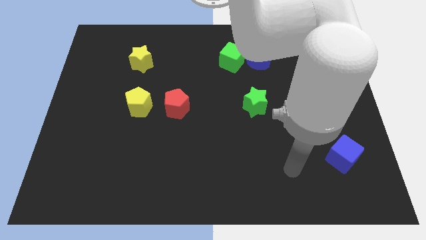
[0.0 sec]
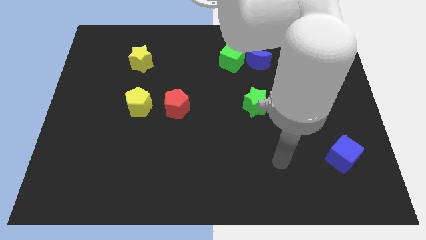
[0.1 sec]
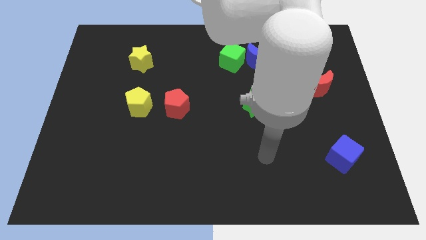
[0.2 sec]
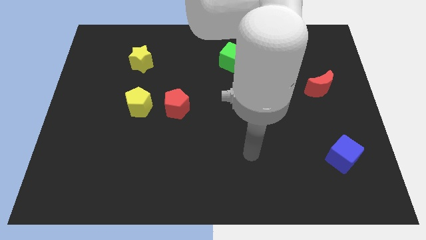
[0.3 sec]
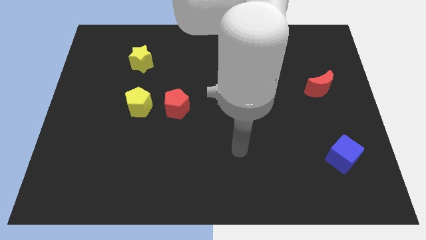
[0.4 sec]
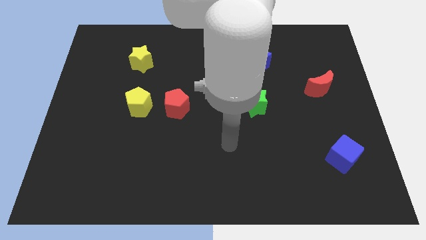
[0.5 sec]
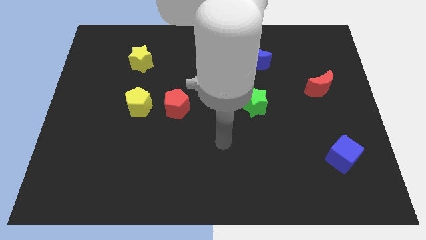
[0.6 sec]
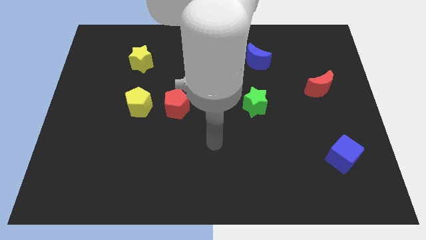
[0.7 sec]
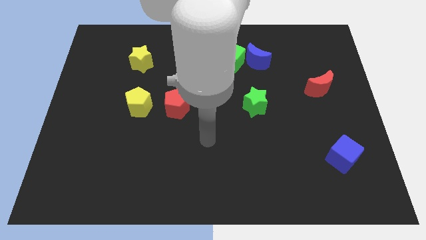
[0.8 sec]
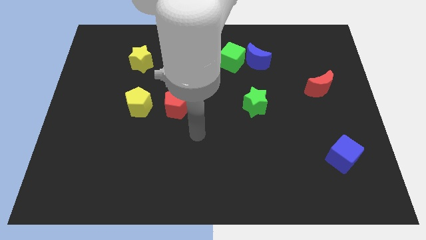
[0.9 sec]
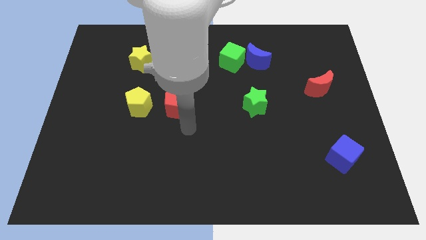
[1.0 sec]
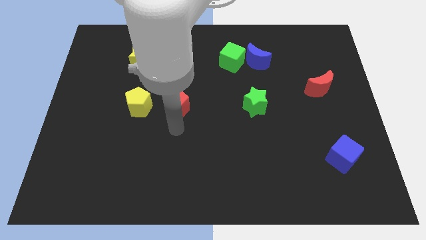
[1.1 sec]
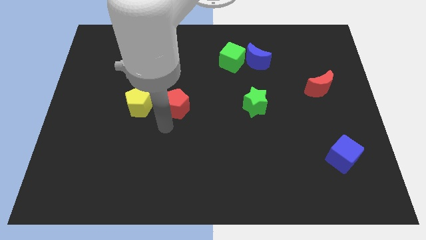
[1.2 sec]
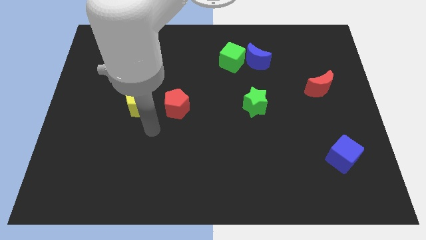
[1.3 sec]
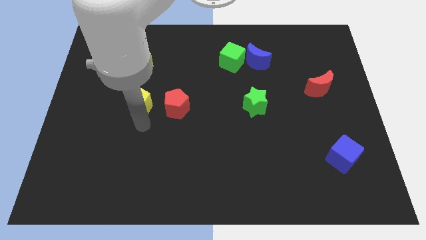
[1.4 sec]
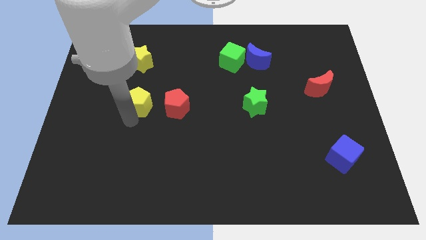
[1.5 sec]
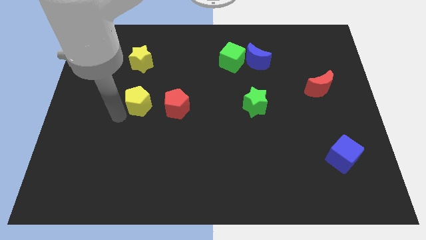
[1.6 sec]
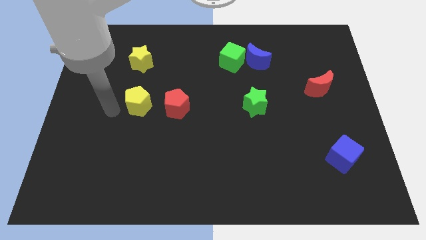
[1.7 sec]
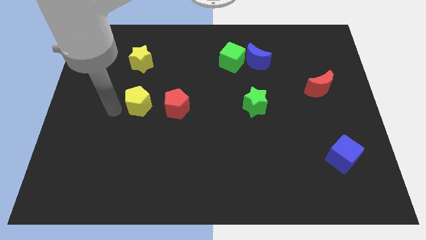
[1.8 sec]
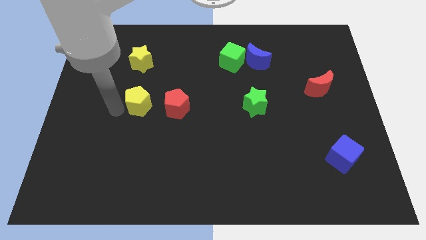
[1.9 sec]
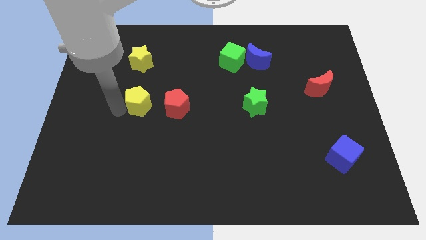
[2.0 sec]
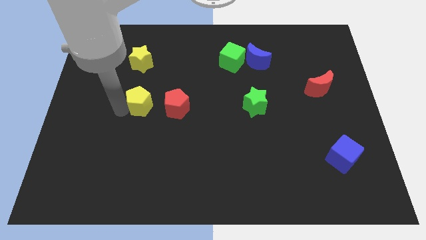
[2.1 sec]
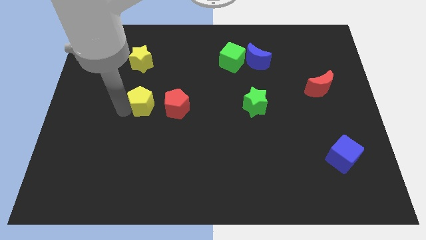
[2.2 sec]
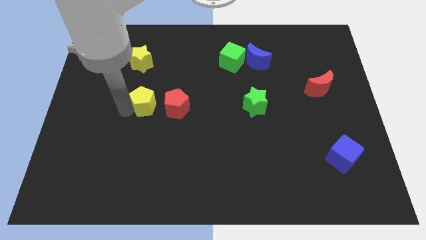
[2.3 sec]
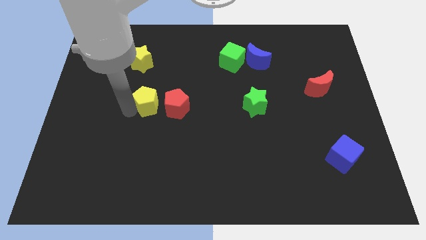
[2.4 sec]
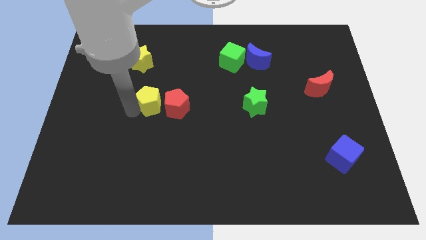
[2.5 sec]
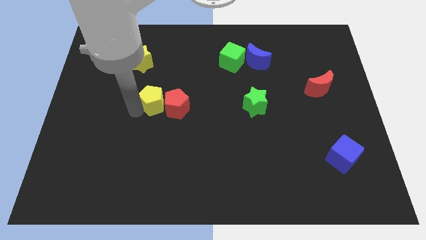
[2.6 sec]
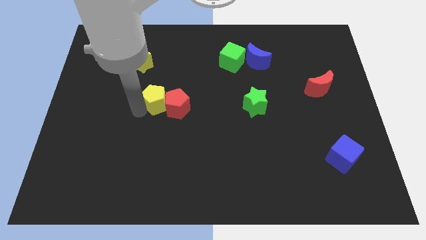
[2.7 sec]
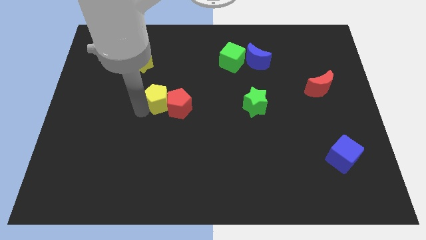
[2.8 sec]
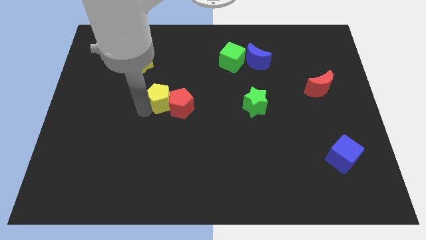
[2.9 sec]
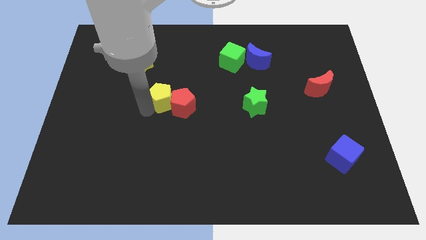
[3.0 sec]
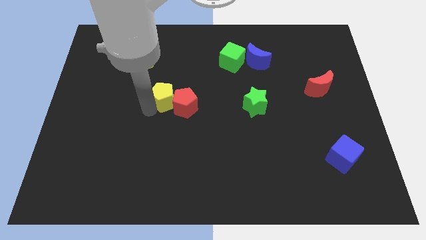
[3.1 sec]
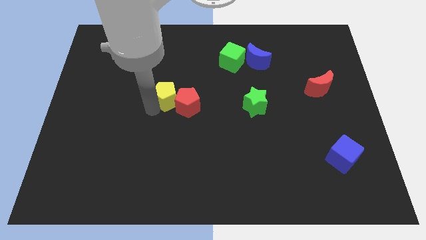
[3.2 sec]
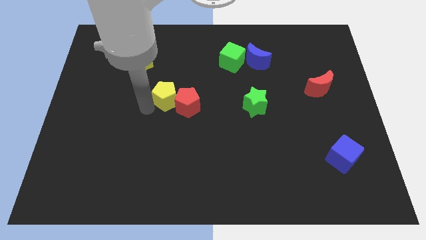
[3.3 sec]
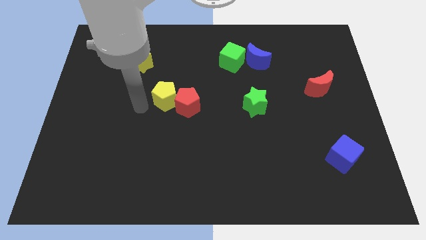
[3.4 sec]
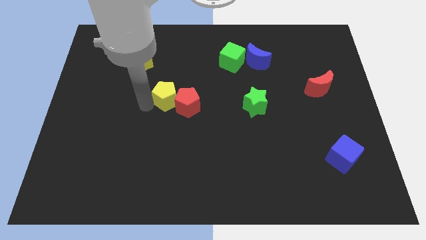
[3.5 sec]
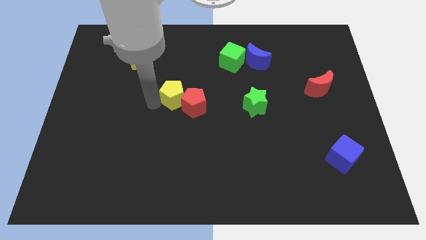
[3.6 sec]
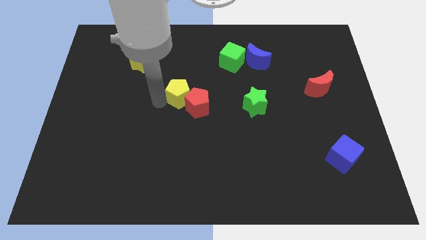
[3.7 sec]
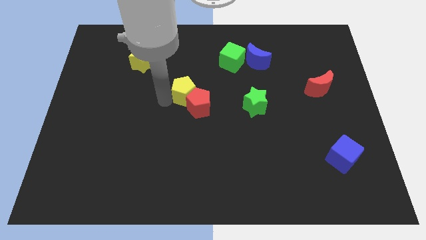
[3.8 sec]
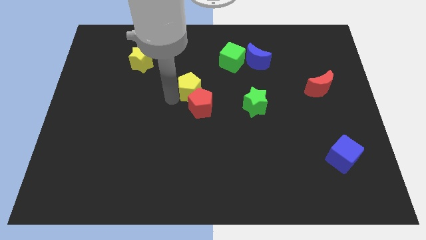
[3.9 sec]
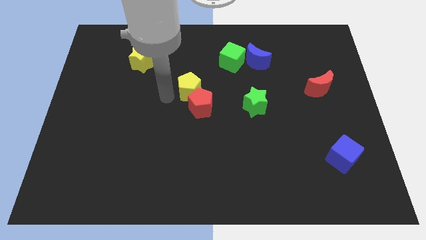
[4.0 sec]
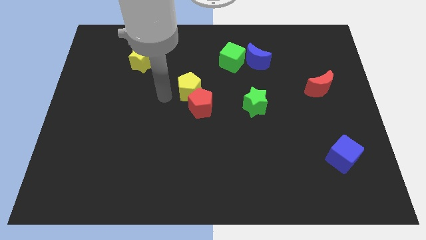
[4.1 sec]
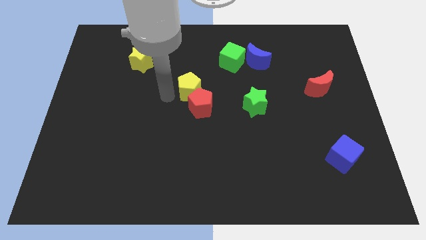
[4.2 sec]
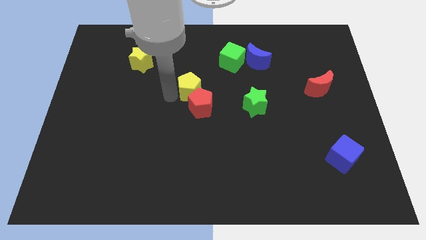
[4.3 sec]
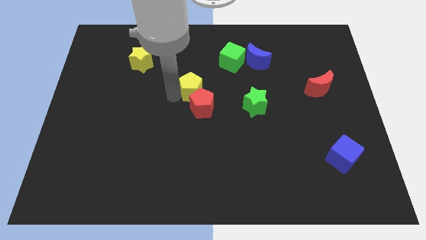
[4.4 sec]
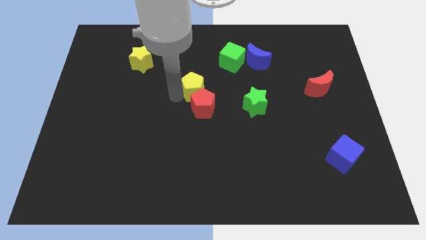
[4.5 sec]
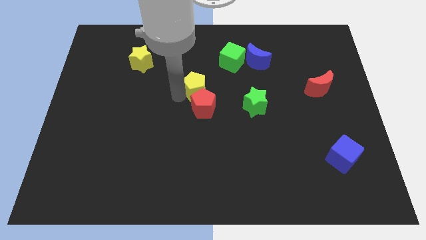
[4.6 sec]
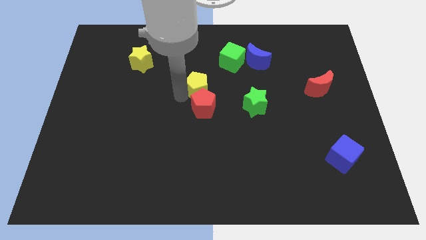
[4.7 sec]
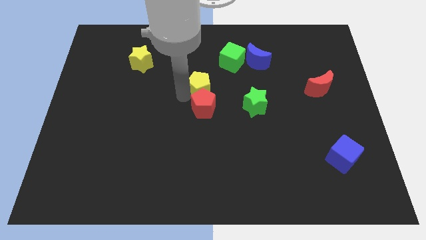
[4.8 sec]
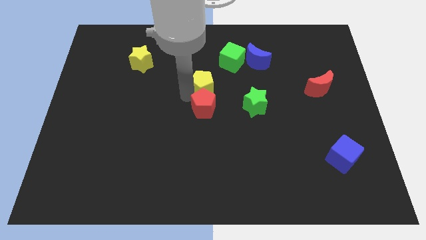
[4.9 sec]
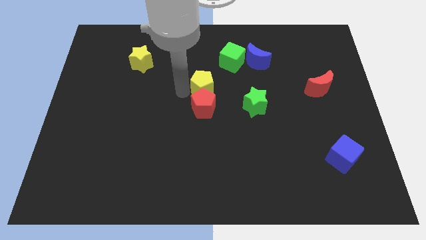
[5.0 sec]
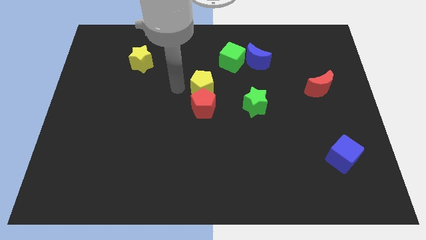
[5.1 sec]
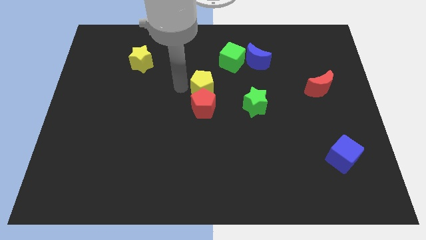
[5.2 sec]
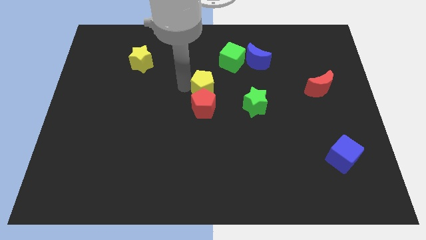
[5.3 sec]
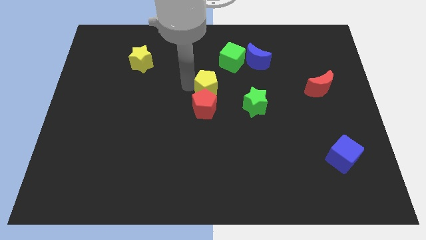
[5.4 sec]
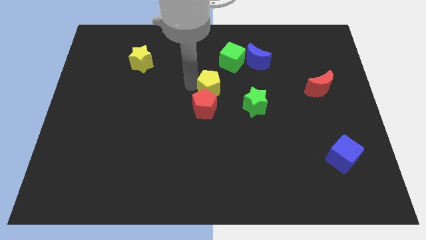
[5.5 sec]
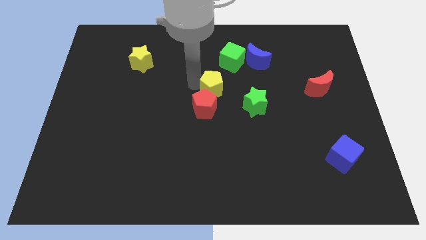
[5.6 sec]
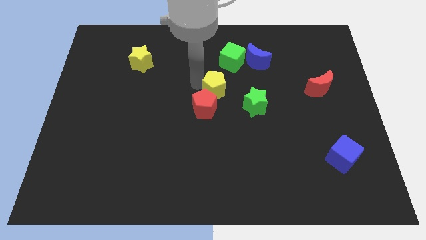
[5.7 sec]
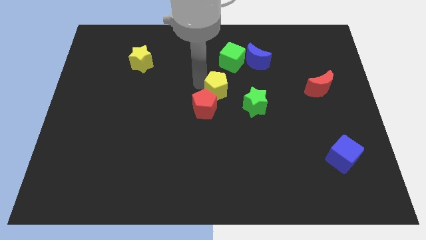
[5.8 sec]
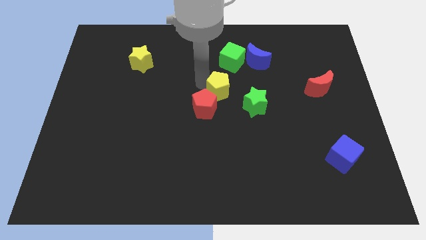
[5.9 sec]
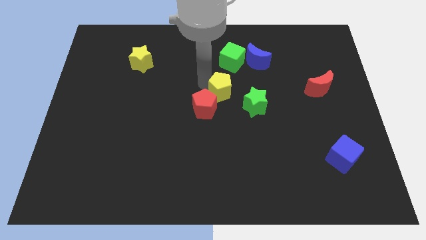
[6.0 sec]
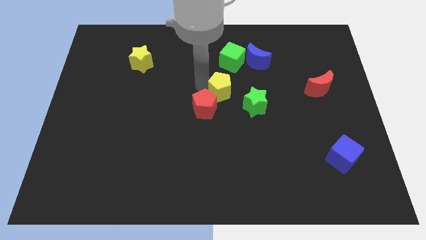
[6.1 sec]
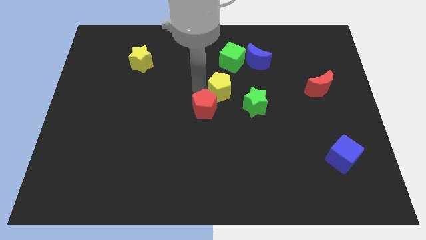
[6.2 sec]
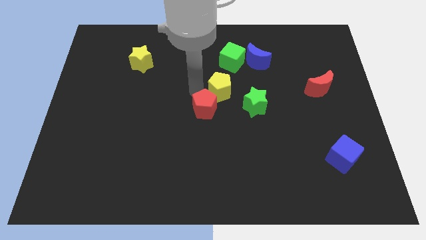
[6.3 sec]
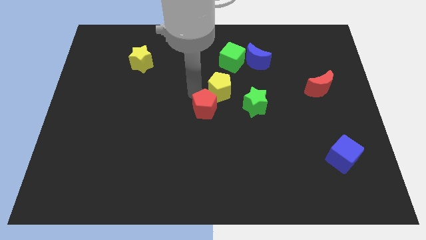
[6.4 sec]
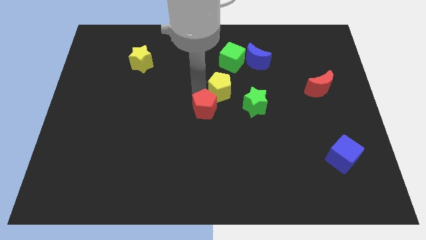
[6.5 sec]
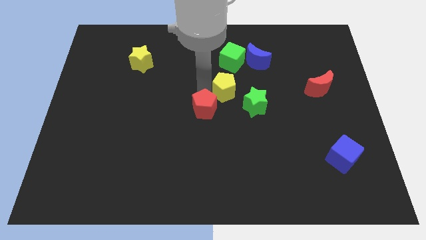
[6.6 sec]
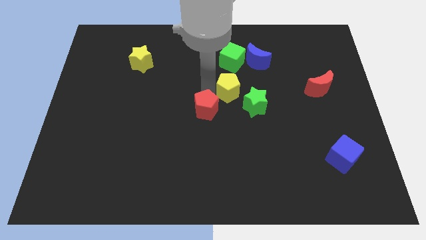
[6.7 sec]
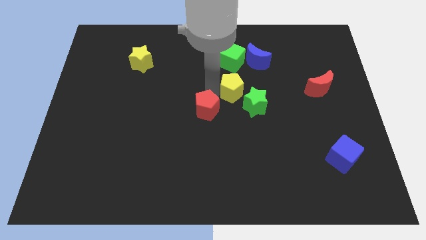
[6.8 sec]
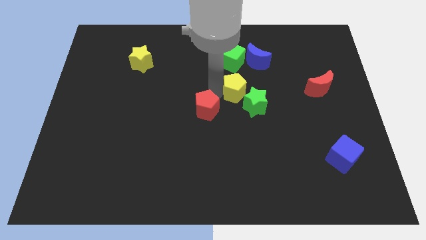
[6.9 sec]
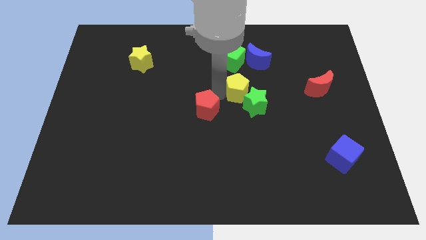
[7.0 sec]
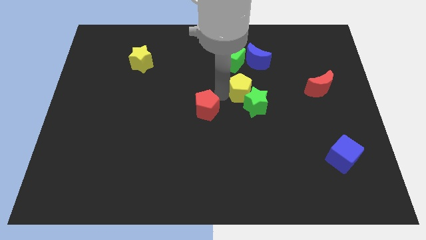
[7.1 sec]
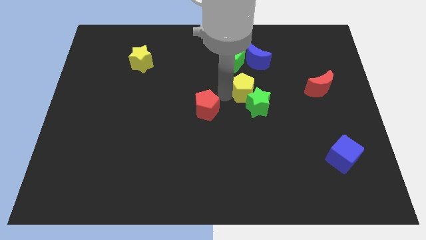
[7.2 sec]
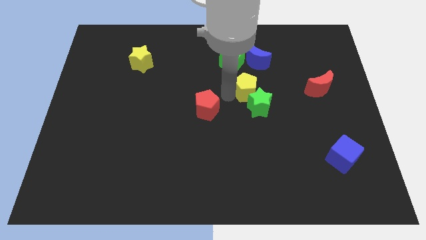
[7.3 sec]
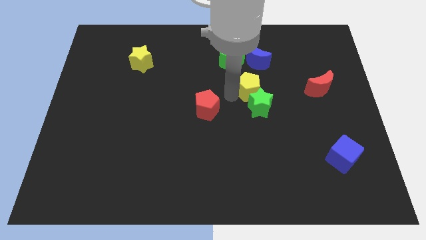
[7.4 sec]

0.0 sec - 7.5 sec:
put the yellow pentagon diagonally down and to the right of the green cube

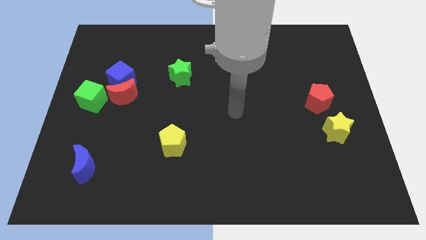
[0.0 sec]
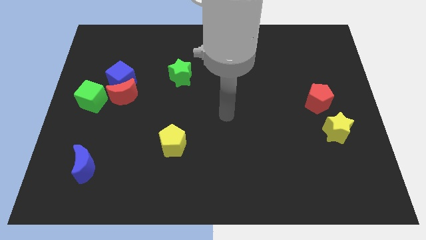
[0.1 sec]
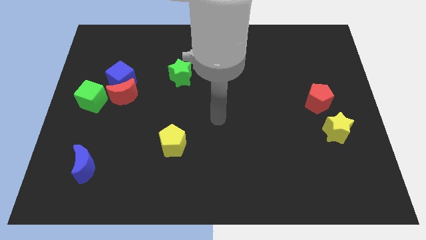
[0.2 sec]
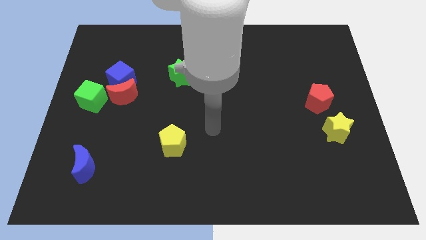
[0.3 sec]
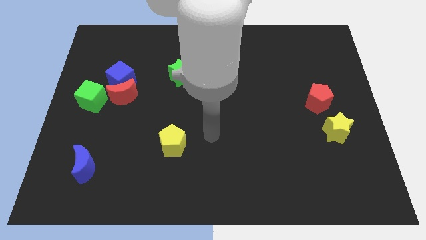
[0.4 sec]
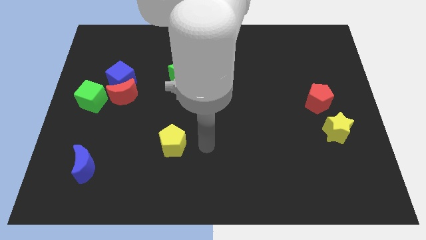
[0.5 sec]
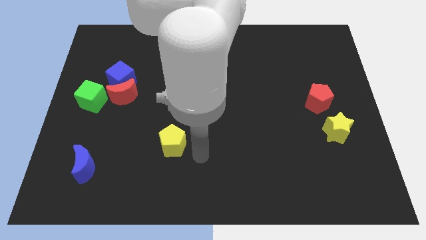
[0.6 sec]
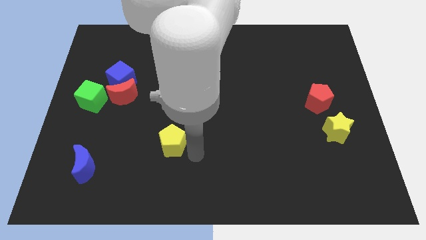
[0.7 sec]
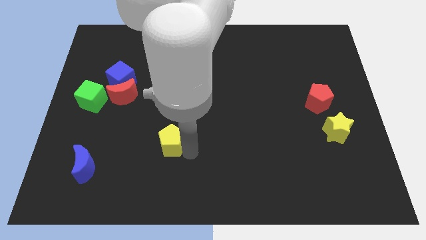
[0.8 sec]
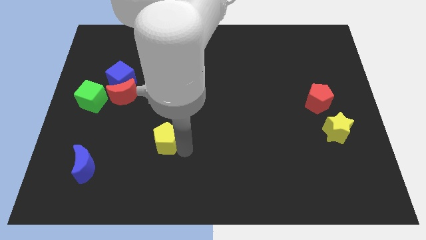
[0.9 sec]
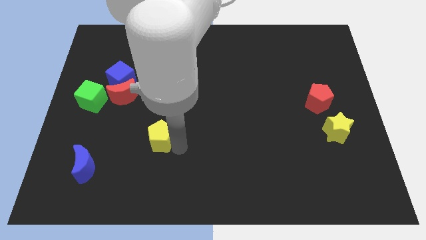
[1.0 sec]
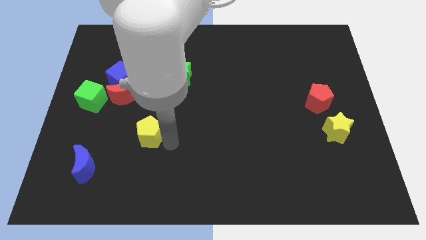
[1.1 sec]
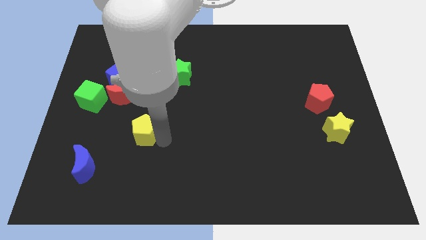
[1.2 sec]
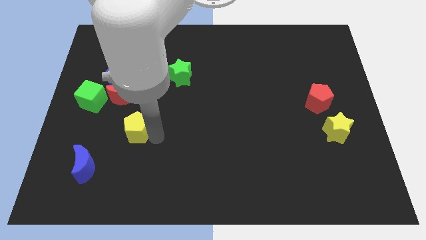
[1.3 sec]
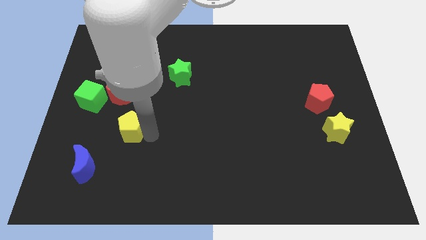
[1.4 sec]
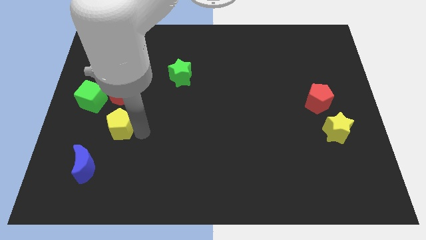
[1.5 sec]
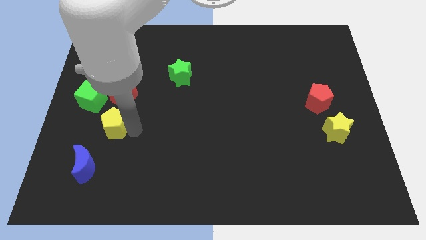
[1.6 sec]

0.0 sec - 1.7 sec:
move the yellow pentagon to the top of the blue moon
